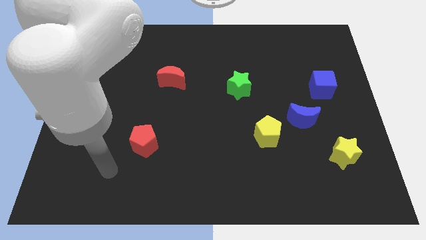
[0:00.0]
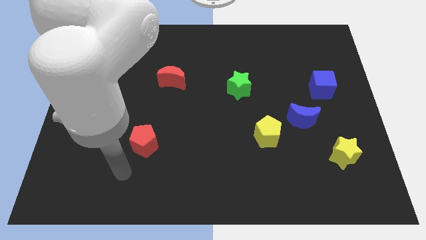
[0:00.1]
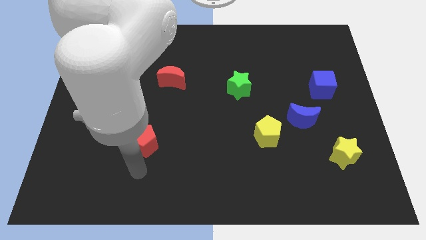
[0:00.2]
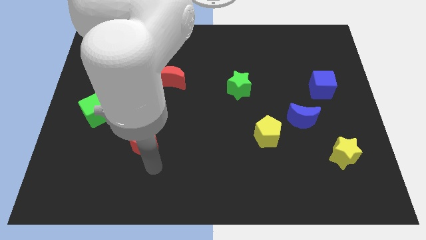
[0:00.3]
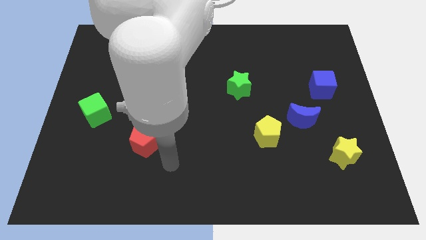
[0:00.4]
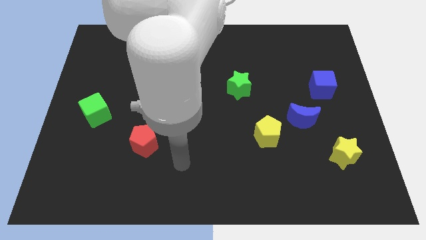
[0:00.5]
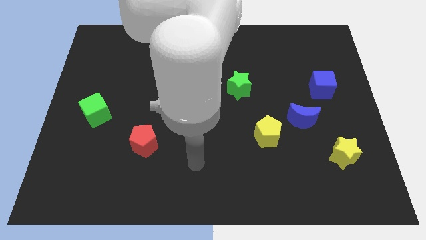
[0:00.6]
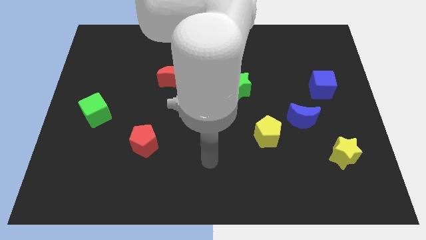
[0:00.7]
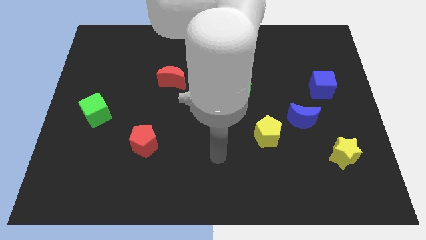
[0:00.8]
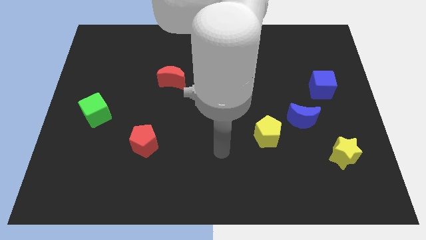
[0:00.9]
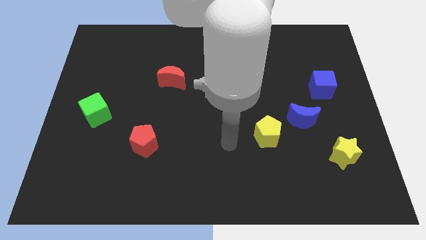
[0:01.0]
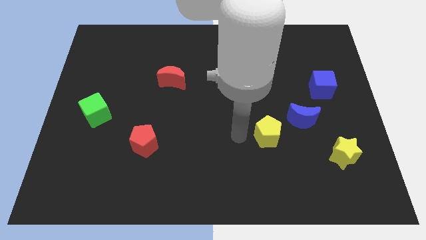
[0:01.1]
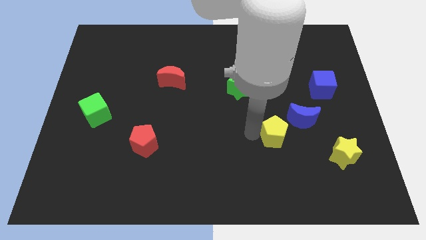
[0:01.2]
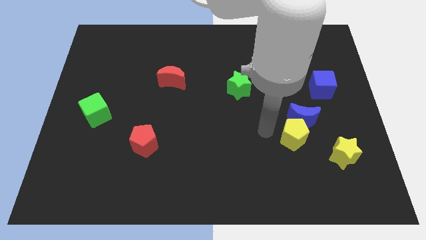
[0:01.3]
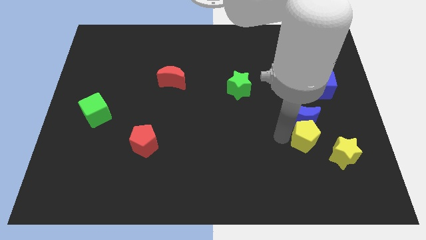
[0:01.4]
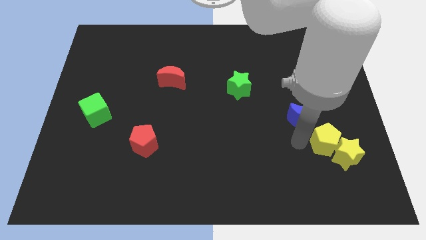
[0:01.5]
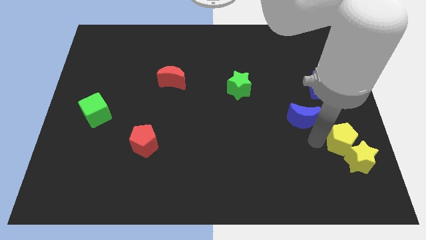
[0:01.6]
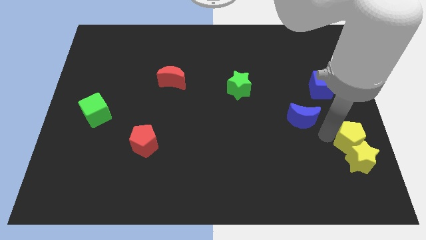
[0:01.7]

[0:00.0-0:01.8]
separate the blue moon from the yellow pentagon

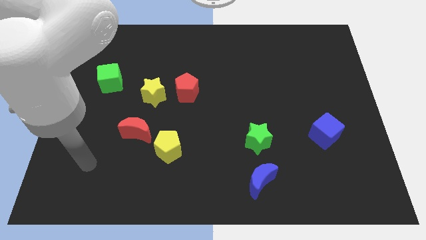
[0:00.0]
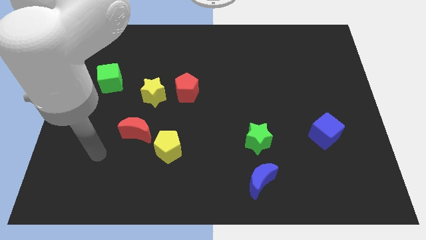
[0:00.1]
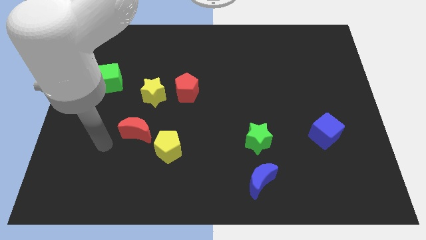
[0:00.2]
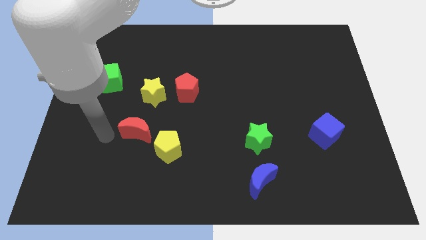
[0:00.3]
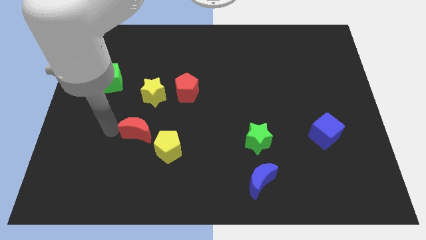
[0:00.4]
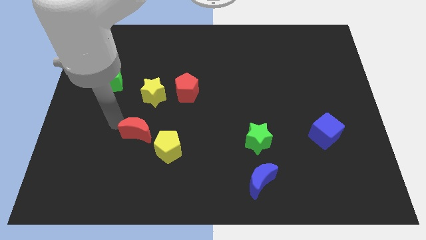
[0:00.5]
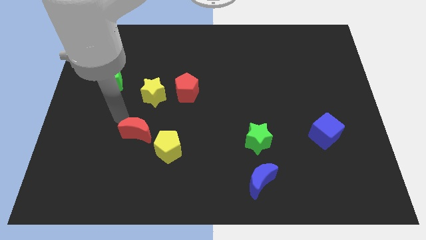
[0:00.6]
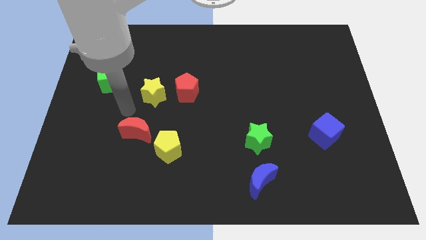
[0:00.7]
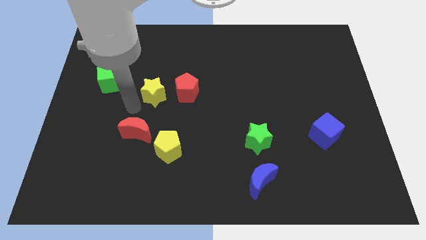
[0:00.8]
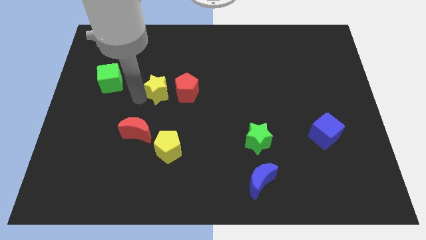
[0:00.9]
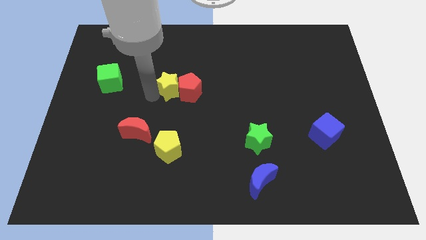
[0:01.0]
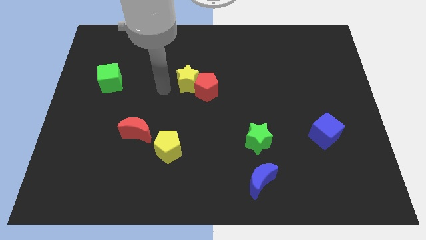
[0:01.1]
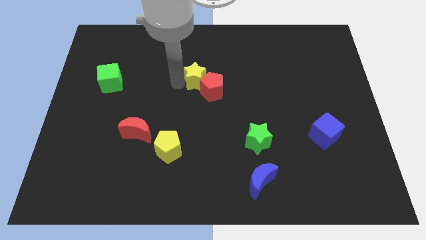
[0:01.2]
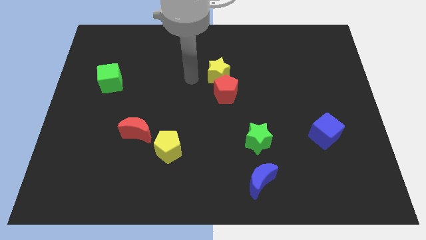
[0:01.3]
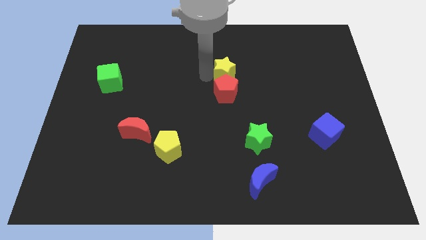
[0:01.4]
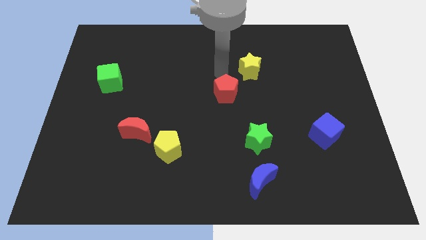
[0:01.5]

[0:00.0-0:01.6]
move the red pentagon away from the yellow star

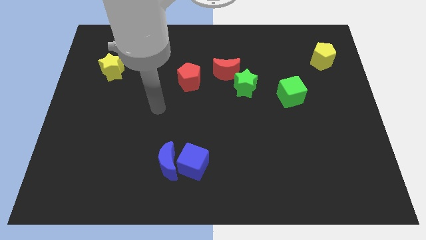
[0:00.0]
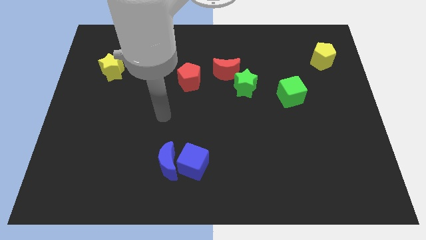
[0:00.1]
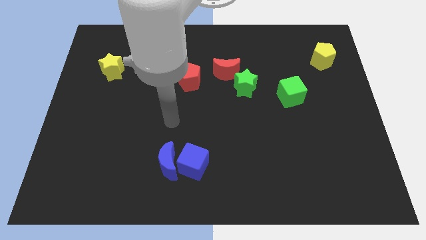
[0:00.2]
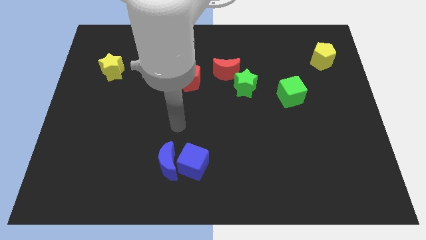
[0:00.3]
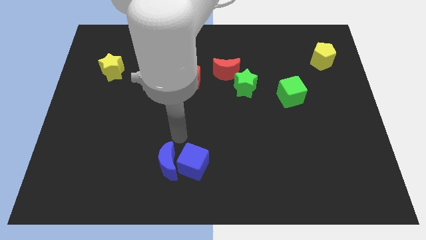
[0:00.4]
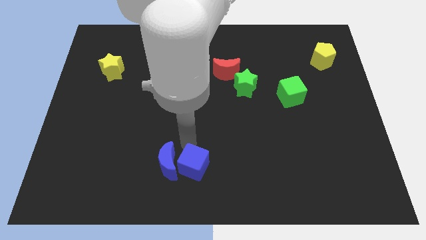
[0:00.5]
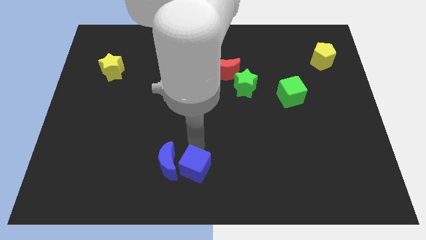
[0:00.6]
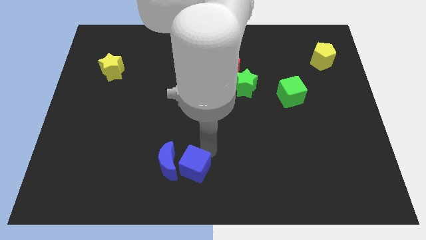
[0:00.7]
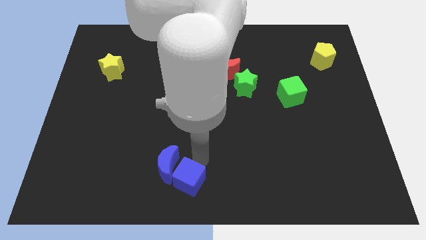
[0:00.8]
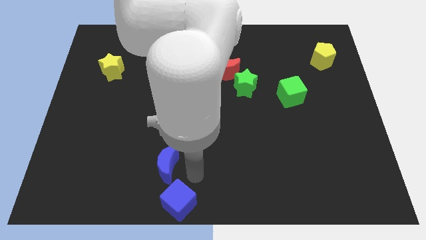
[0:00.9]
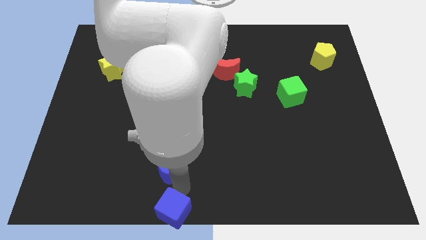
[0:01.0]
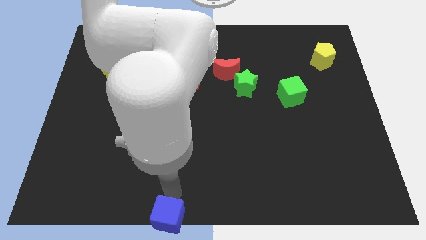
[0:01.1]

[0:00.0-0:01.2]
move the blue moon away from the blue cube

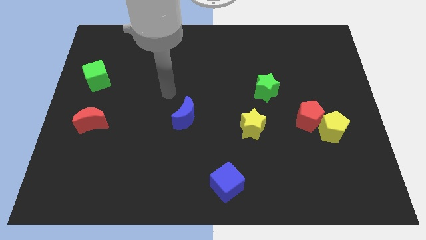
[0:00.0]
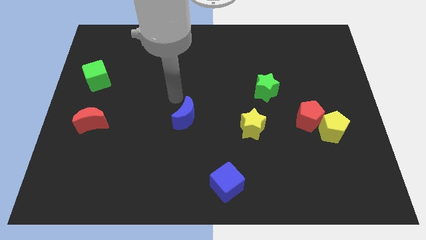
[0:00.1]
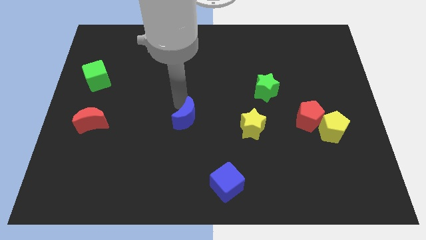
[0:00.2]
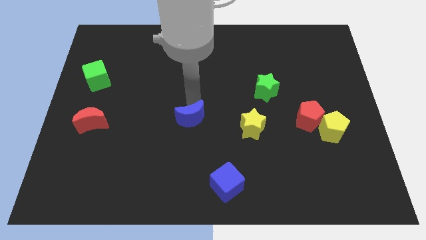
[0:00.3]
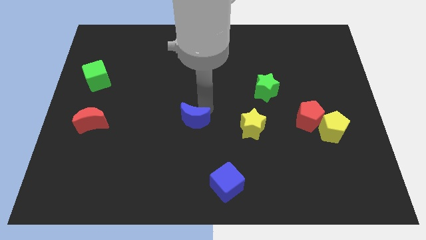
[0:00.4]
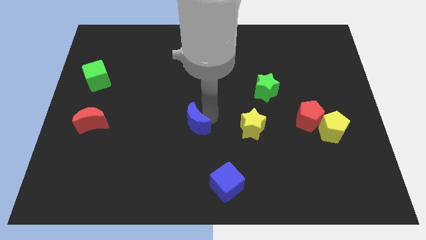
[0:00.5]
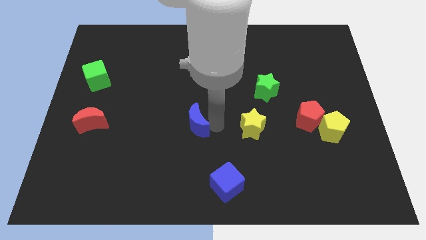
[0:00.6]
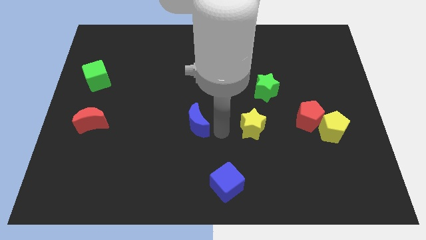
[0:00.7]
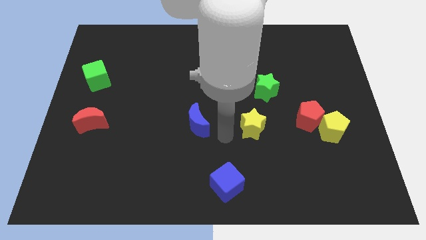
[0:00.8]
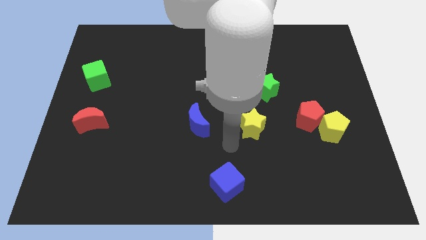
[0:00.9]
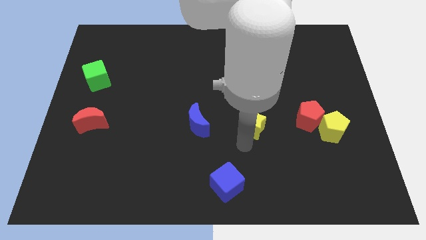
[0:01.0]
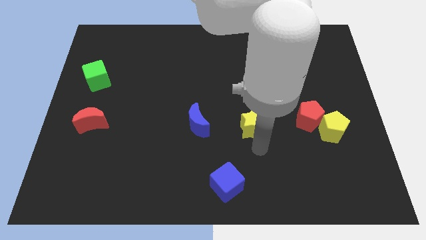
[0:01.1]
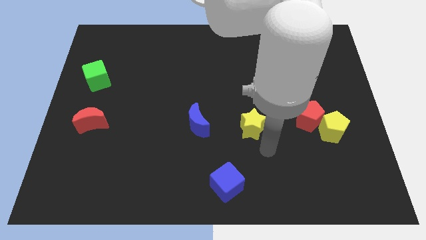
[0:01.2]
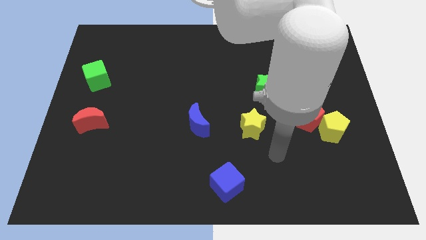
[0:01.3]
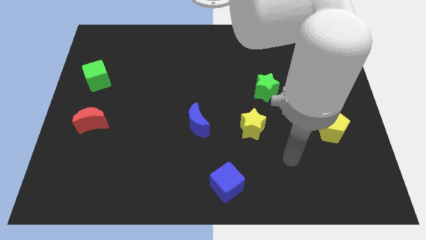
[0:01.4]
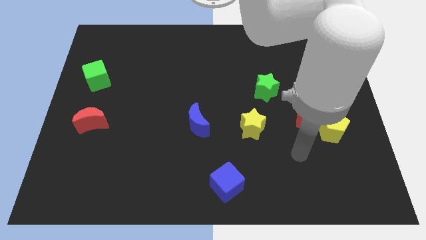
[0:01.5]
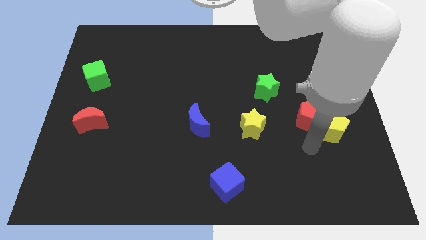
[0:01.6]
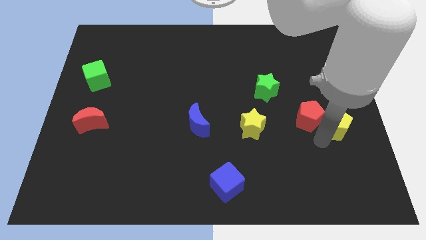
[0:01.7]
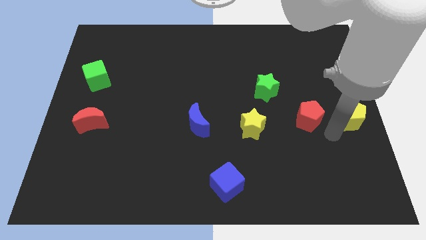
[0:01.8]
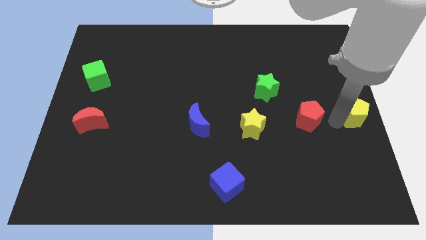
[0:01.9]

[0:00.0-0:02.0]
separate the red pentagon from the yellow pentagon

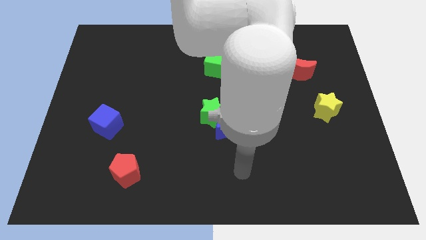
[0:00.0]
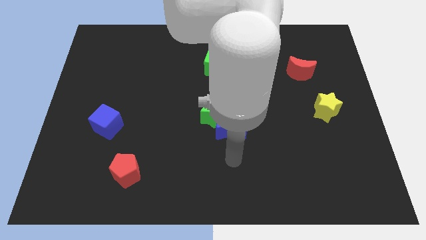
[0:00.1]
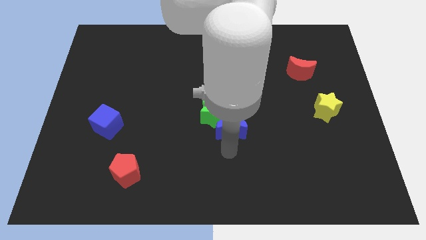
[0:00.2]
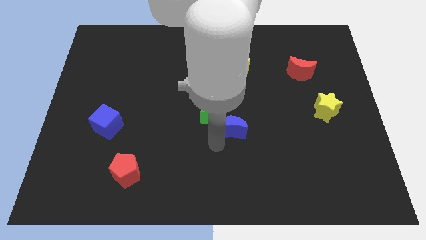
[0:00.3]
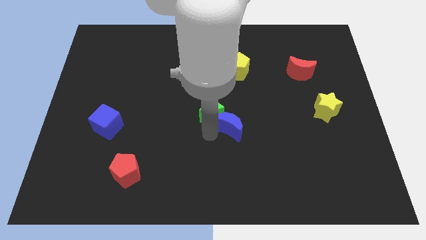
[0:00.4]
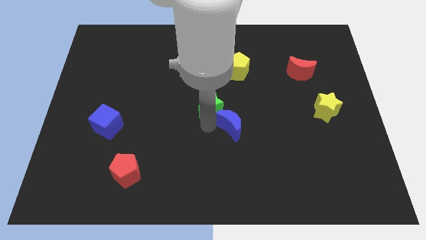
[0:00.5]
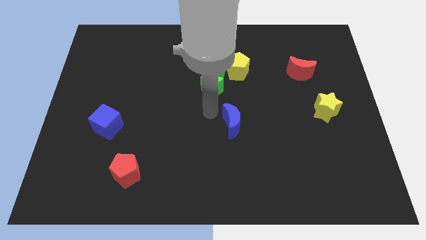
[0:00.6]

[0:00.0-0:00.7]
move the blue moon away from the green star

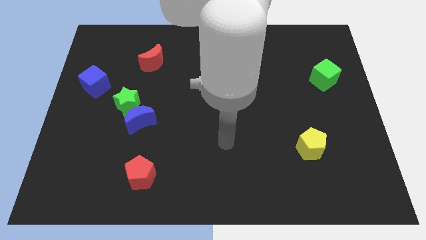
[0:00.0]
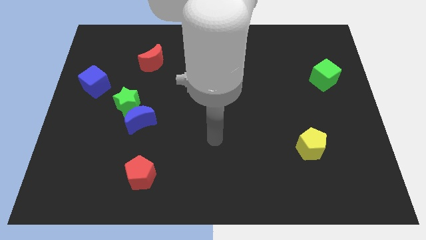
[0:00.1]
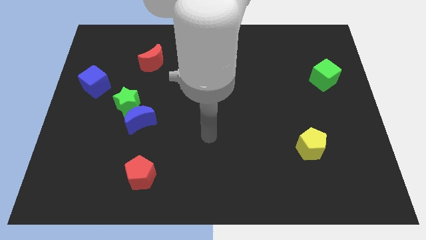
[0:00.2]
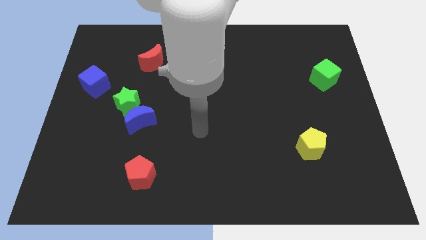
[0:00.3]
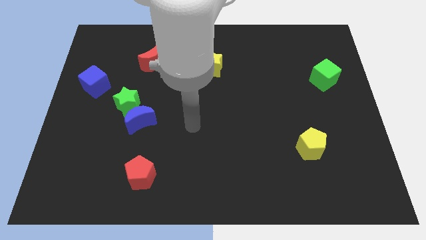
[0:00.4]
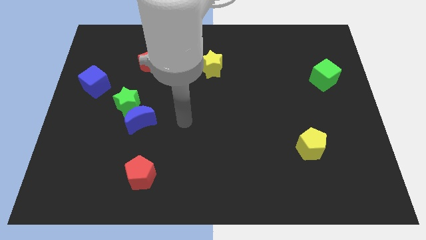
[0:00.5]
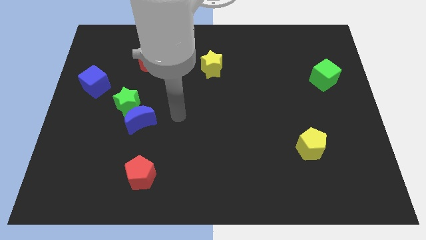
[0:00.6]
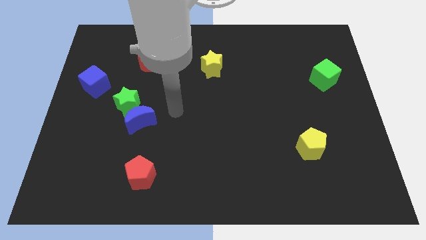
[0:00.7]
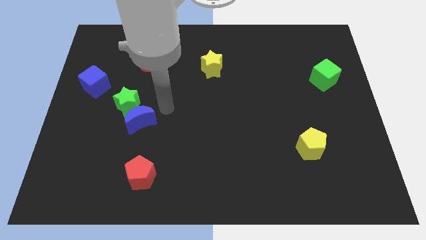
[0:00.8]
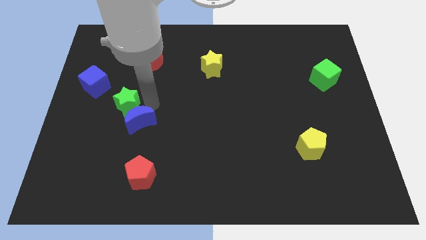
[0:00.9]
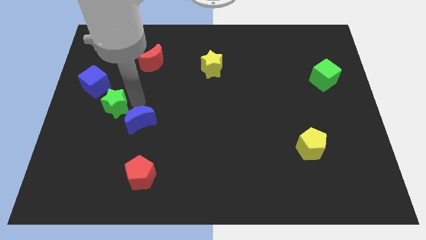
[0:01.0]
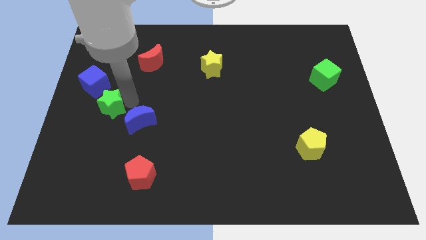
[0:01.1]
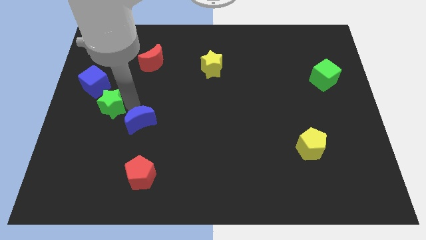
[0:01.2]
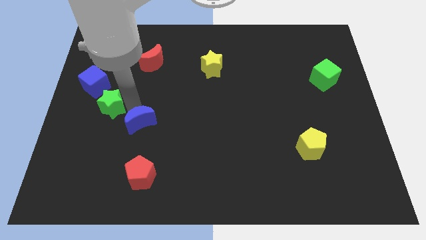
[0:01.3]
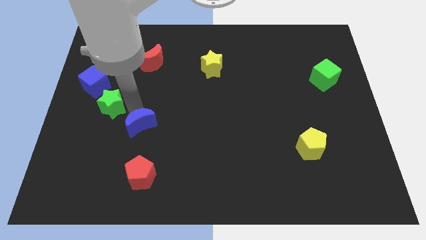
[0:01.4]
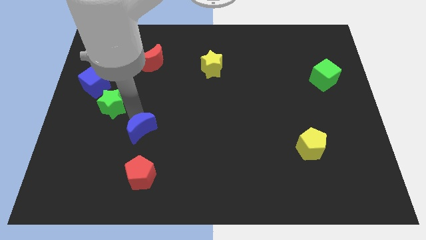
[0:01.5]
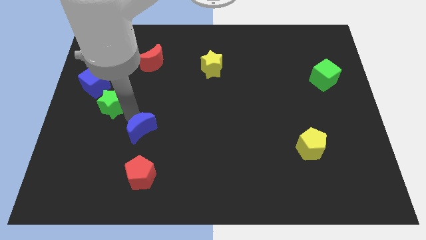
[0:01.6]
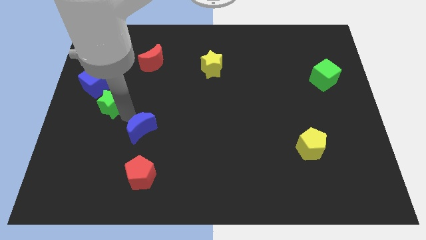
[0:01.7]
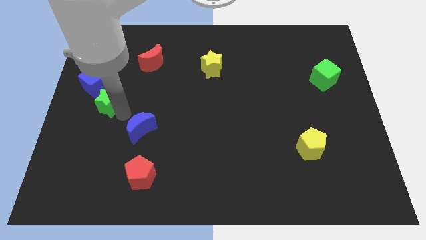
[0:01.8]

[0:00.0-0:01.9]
pull the blue moon apart from the green star
